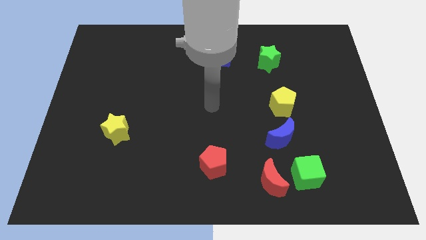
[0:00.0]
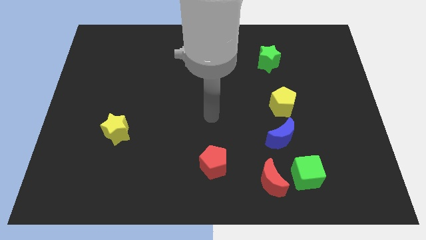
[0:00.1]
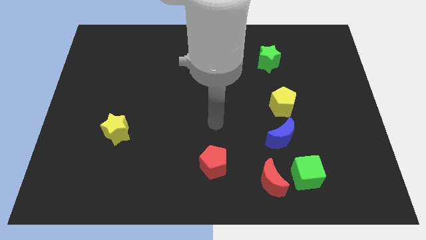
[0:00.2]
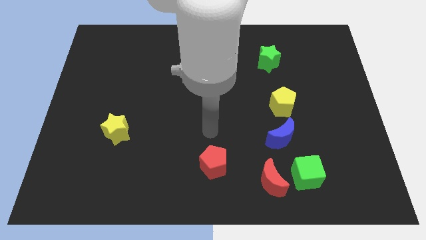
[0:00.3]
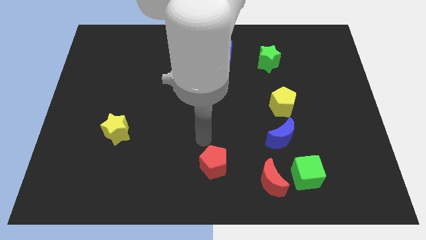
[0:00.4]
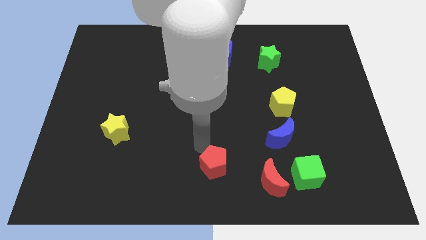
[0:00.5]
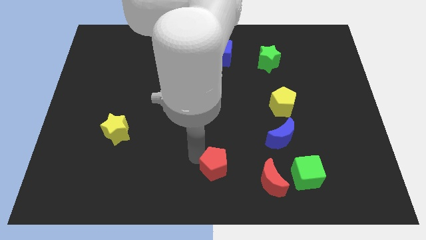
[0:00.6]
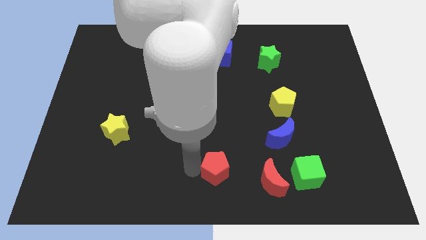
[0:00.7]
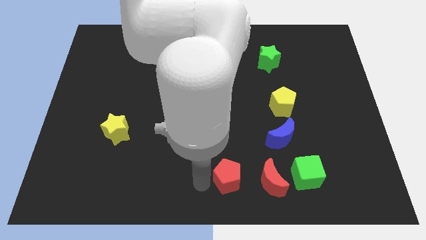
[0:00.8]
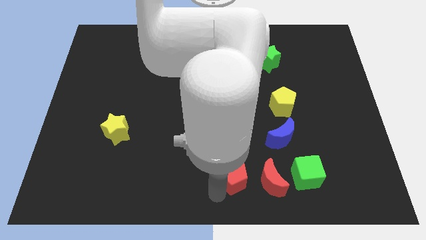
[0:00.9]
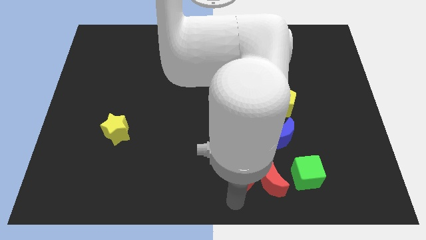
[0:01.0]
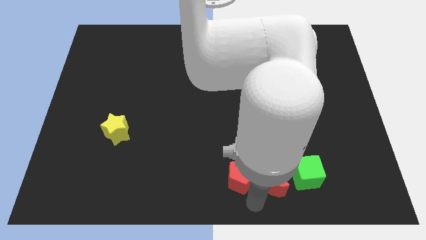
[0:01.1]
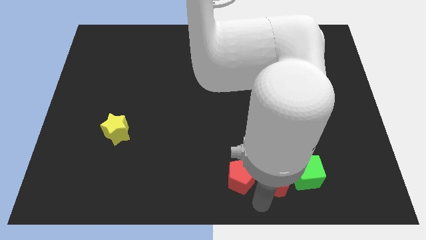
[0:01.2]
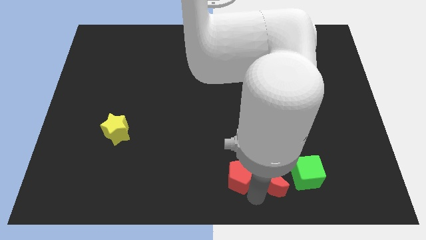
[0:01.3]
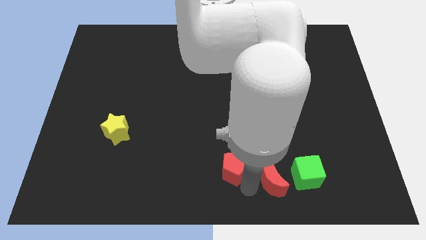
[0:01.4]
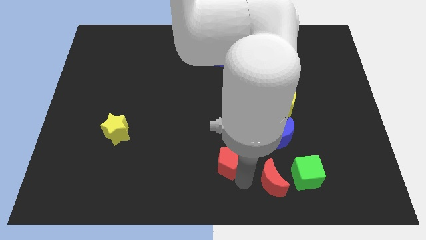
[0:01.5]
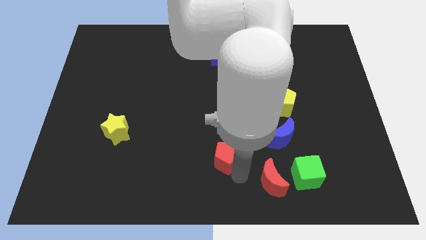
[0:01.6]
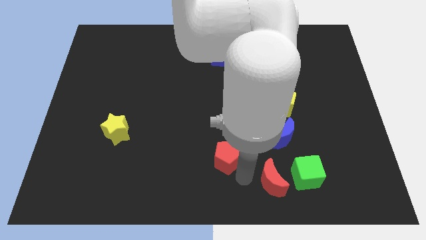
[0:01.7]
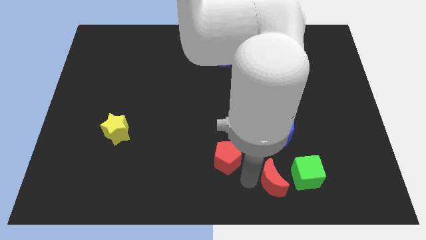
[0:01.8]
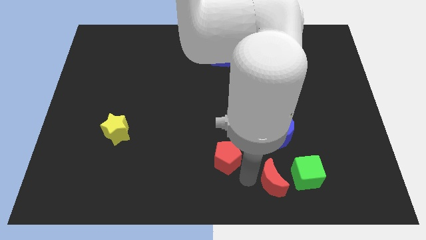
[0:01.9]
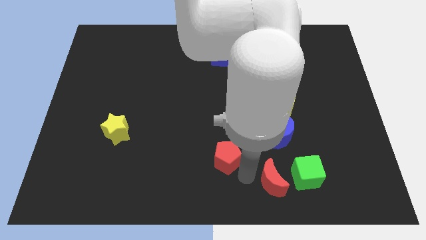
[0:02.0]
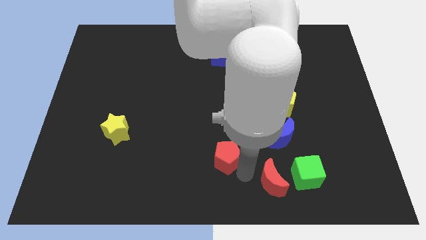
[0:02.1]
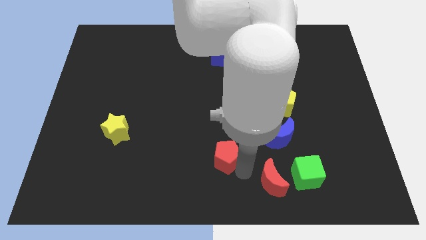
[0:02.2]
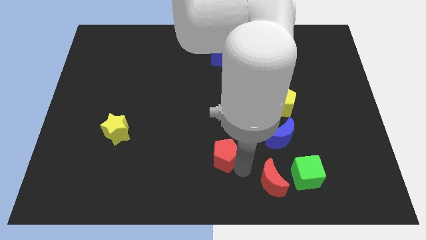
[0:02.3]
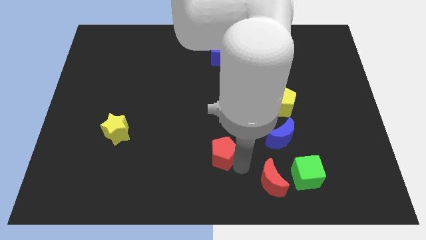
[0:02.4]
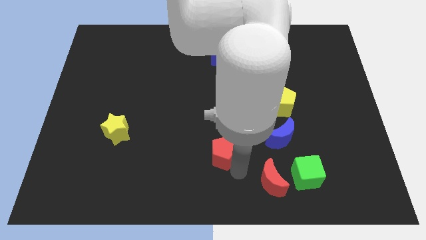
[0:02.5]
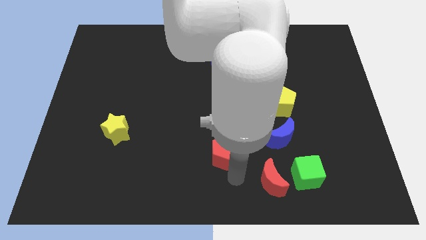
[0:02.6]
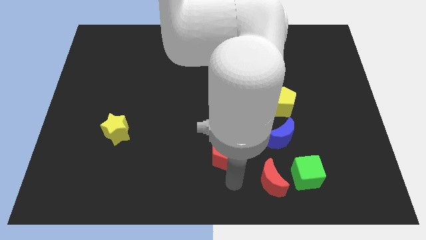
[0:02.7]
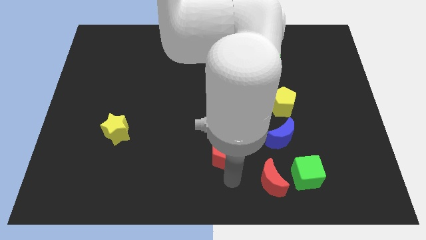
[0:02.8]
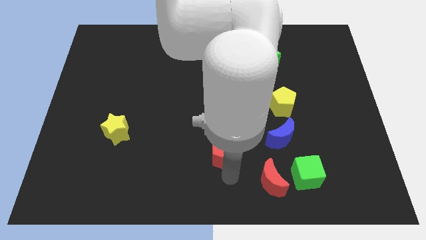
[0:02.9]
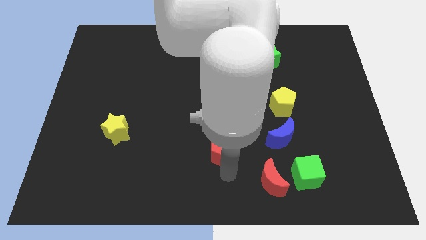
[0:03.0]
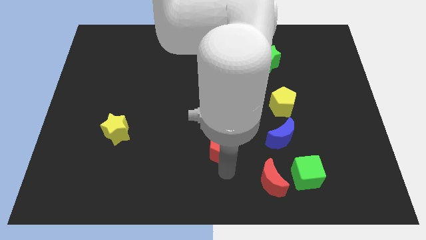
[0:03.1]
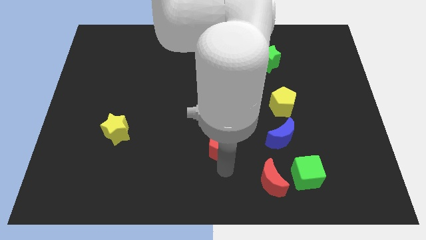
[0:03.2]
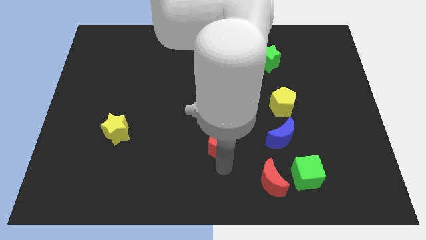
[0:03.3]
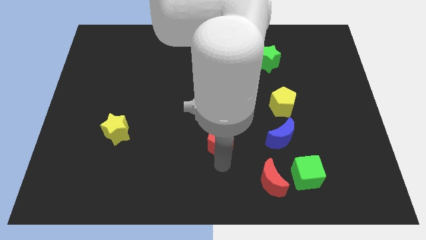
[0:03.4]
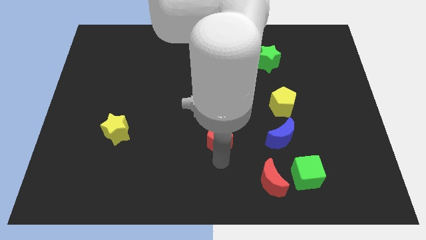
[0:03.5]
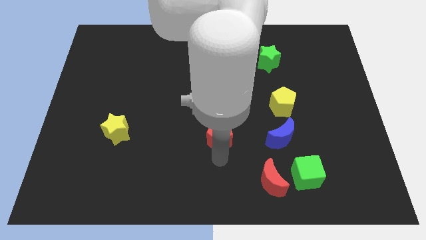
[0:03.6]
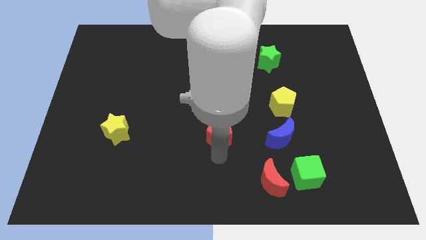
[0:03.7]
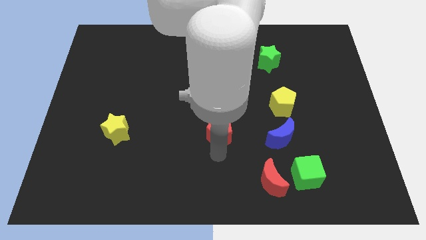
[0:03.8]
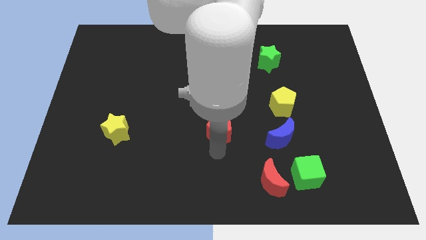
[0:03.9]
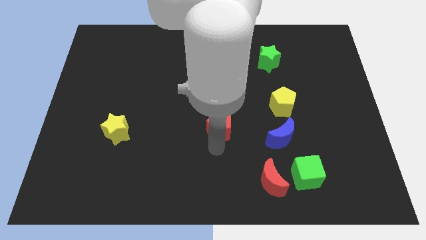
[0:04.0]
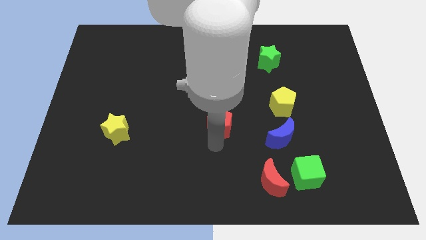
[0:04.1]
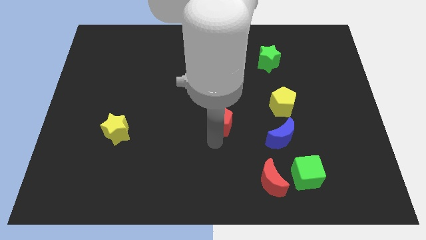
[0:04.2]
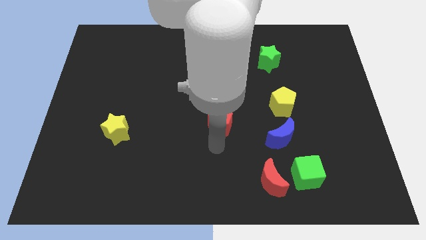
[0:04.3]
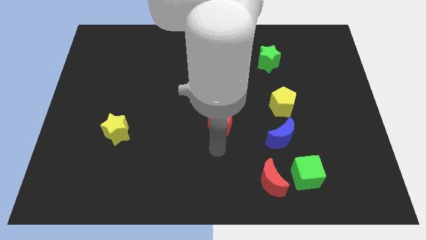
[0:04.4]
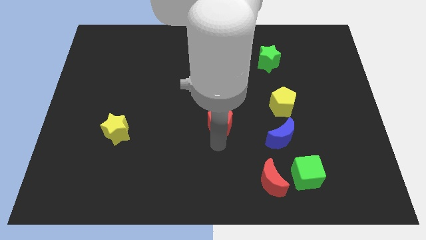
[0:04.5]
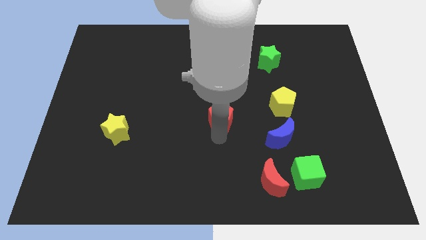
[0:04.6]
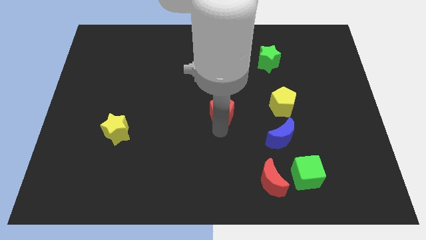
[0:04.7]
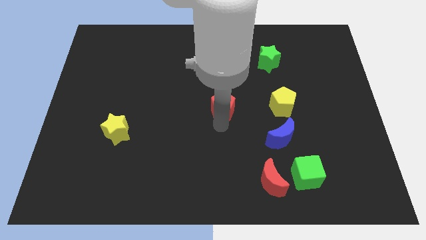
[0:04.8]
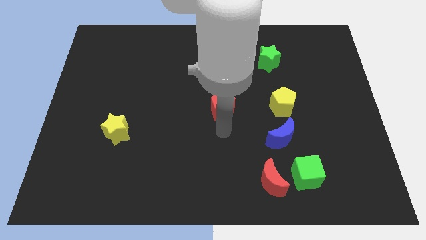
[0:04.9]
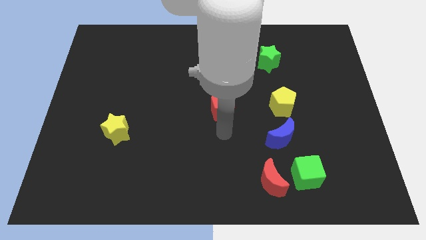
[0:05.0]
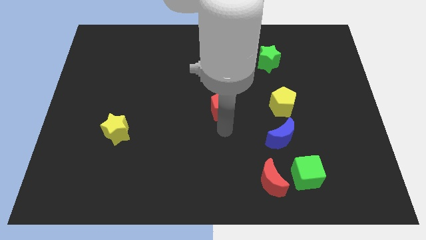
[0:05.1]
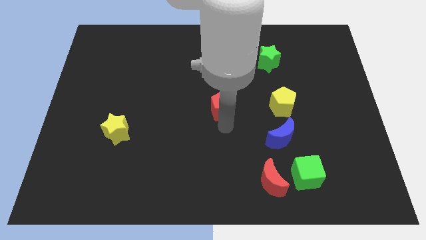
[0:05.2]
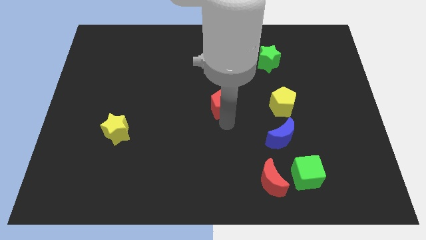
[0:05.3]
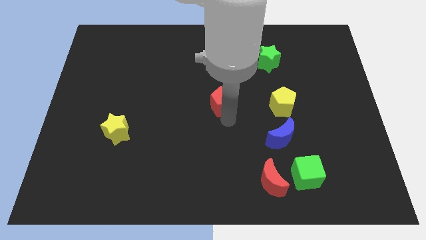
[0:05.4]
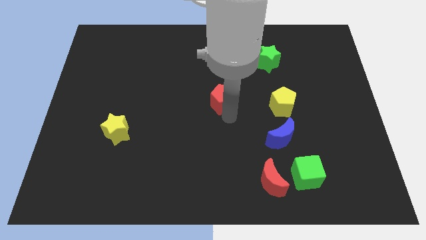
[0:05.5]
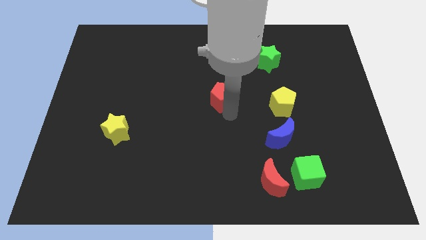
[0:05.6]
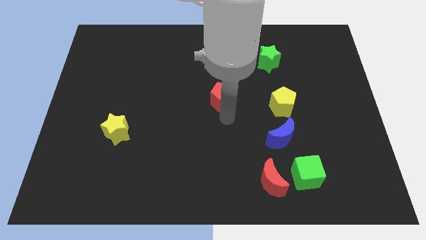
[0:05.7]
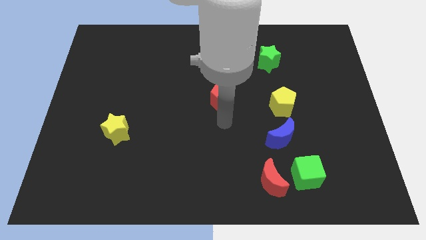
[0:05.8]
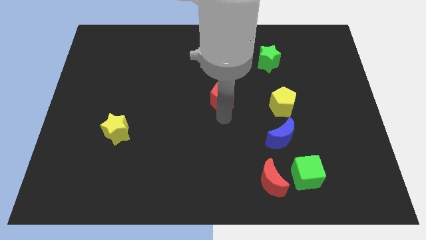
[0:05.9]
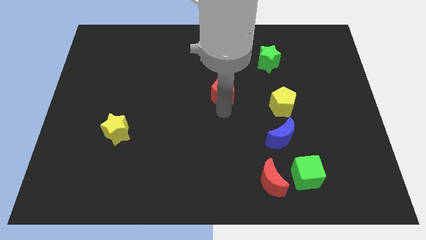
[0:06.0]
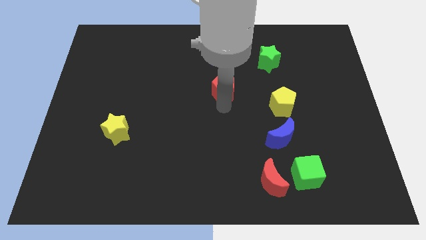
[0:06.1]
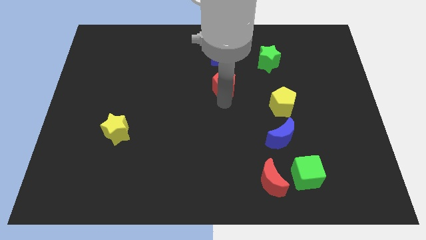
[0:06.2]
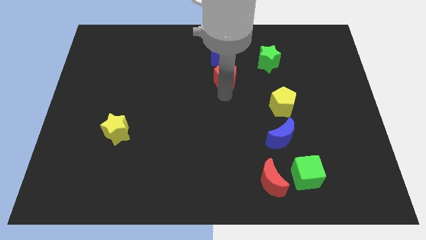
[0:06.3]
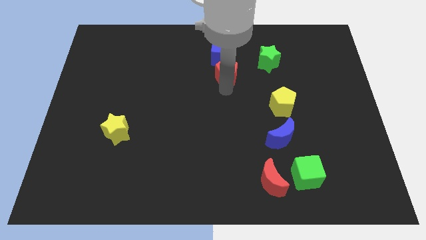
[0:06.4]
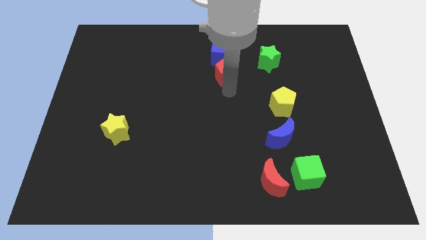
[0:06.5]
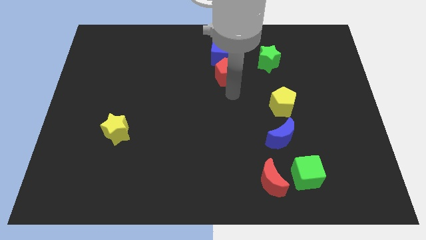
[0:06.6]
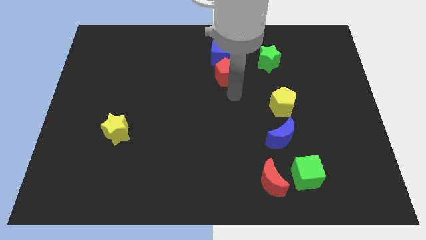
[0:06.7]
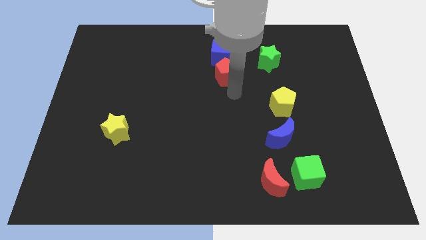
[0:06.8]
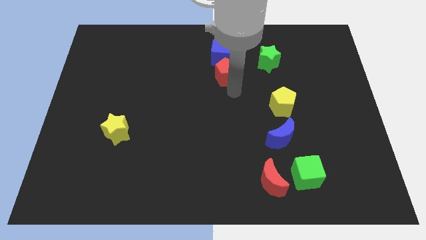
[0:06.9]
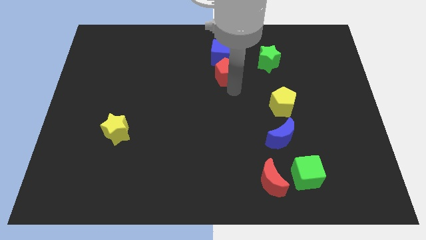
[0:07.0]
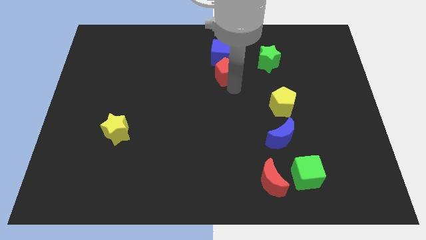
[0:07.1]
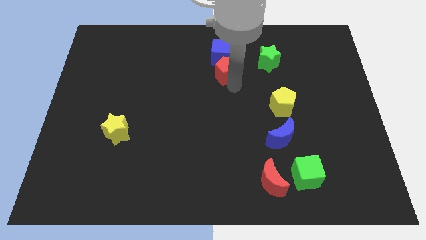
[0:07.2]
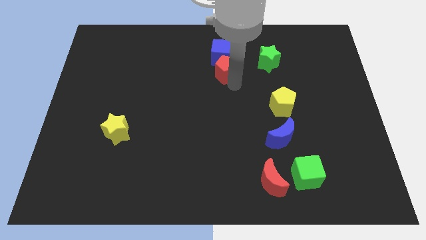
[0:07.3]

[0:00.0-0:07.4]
push the red pentagon next to the blue cube
